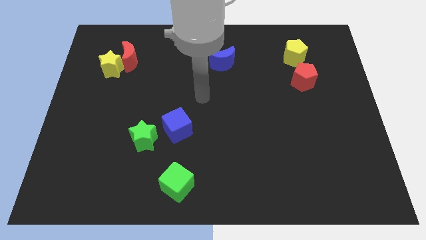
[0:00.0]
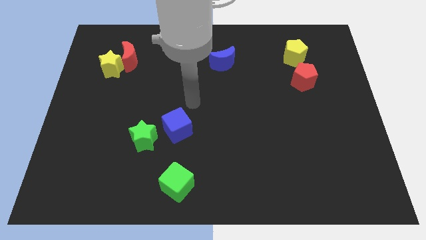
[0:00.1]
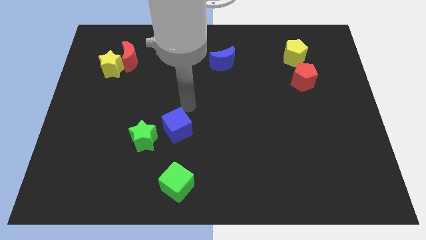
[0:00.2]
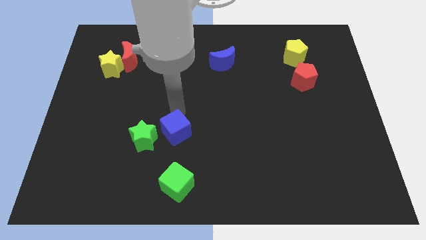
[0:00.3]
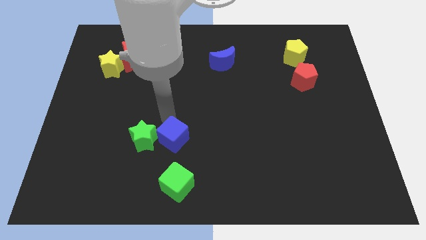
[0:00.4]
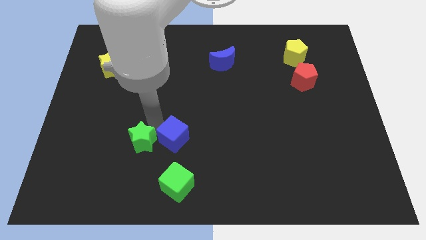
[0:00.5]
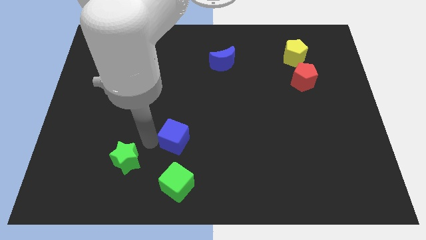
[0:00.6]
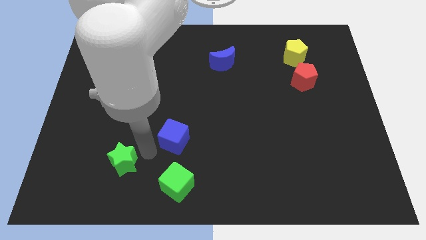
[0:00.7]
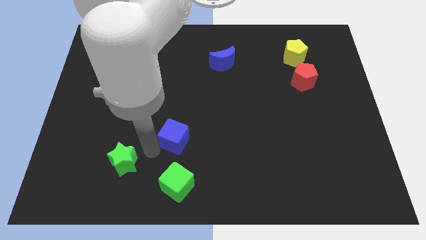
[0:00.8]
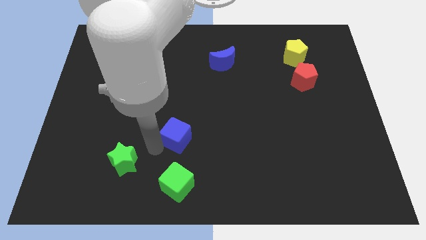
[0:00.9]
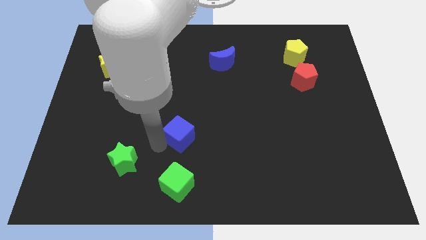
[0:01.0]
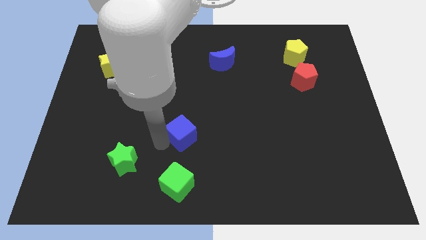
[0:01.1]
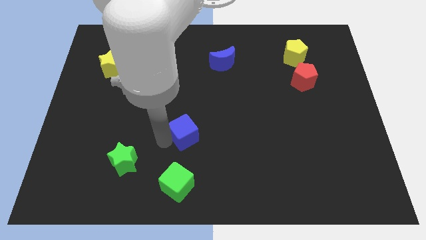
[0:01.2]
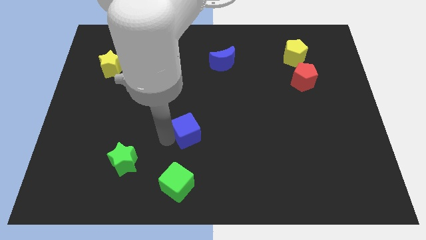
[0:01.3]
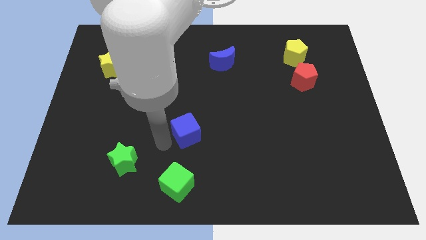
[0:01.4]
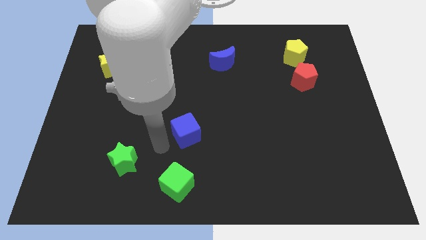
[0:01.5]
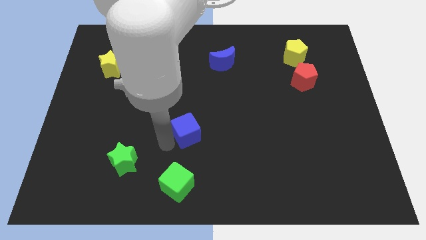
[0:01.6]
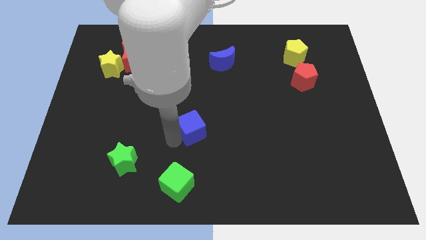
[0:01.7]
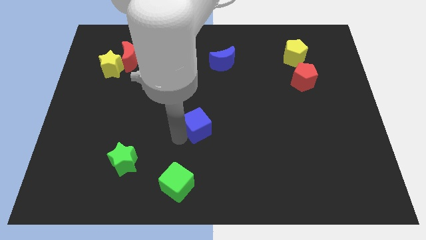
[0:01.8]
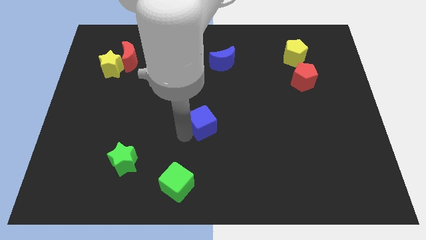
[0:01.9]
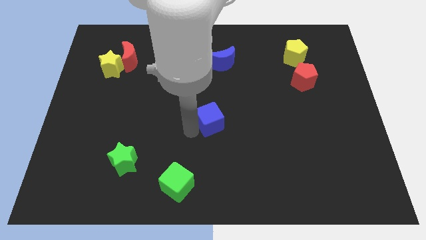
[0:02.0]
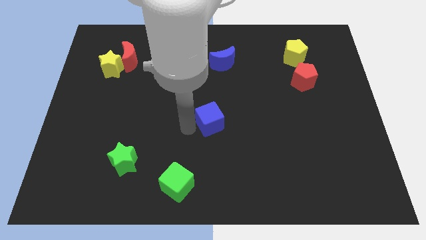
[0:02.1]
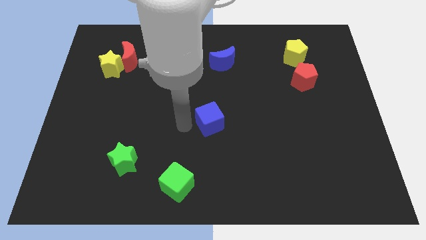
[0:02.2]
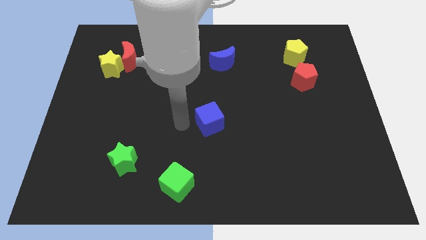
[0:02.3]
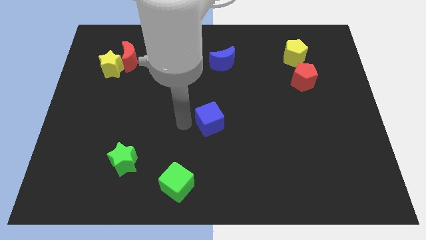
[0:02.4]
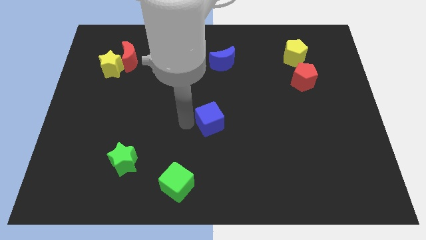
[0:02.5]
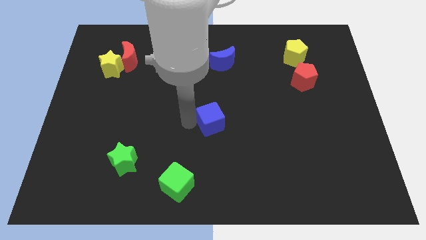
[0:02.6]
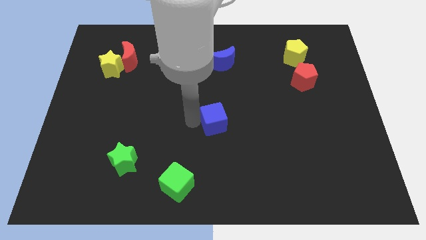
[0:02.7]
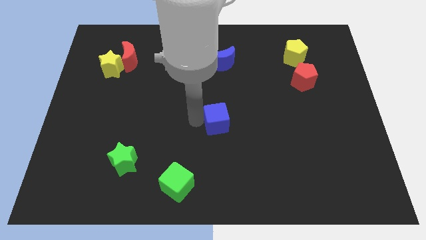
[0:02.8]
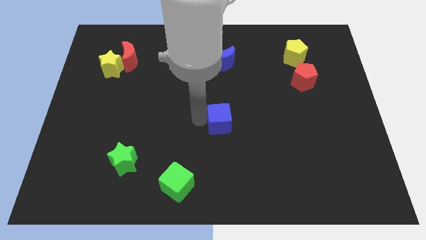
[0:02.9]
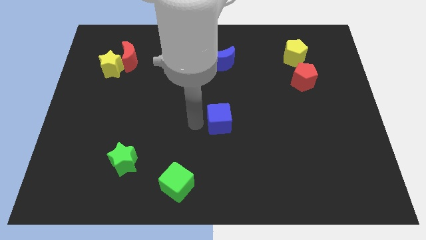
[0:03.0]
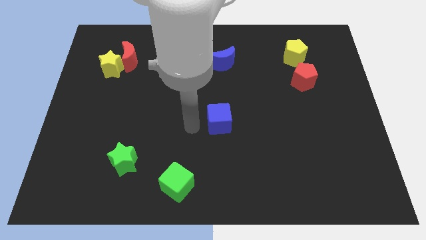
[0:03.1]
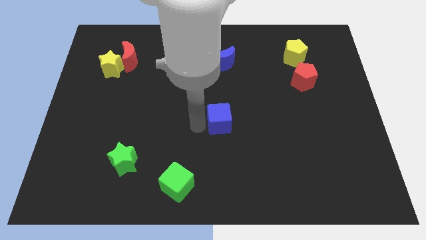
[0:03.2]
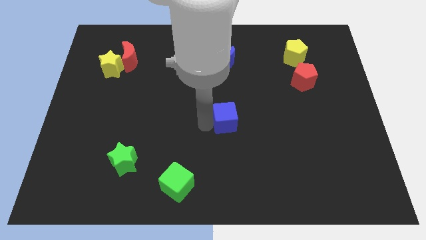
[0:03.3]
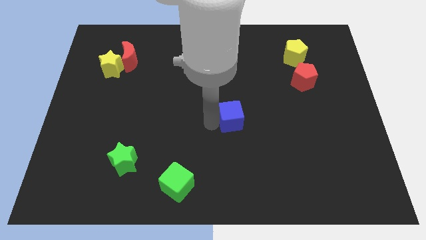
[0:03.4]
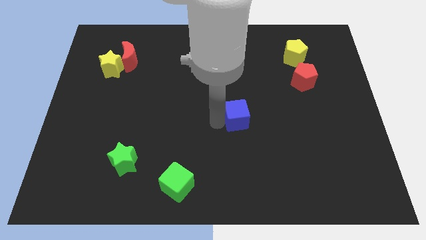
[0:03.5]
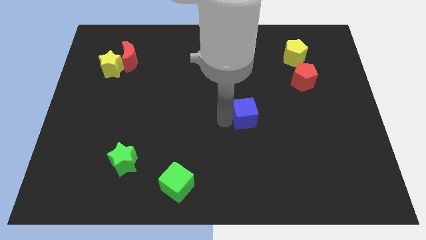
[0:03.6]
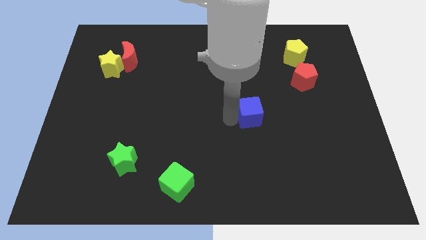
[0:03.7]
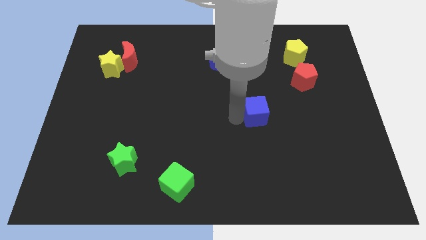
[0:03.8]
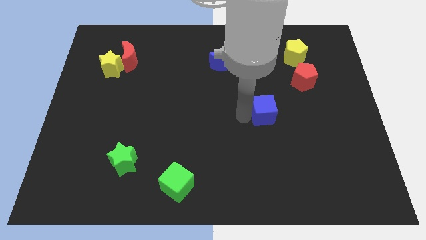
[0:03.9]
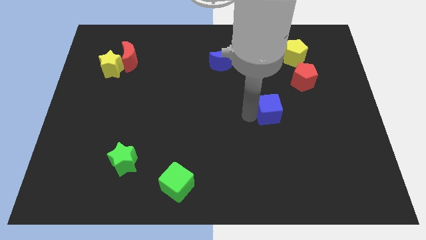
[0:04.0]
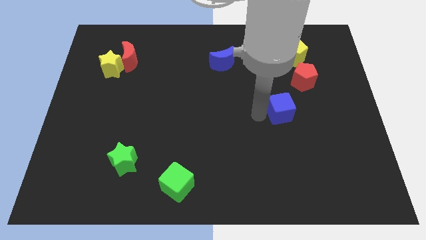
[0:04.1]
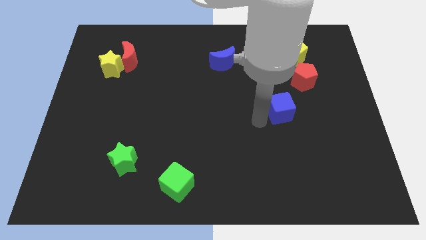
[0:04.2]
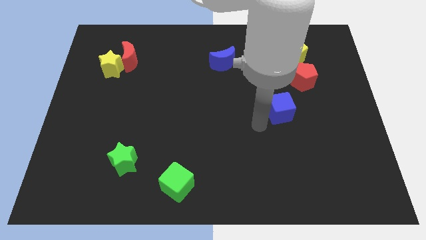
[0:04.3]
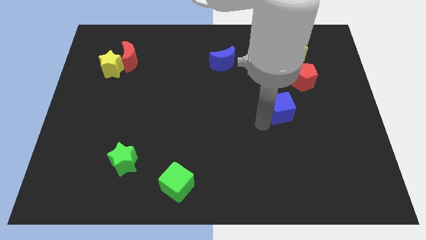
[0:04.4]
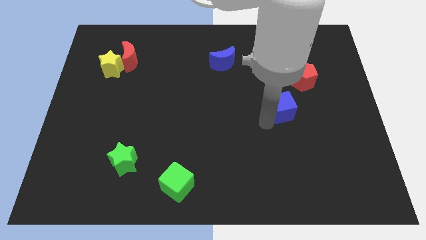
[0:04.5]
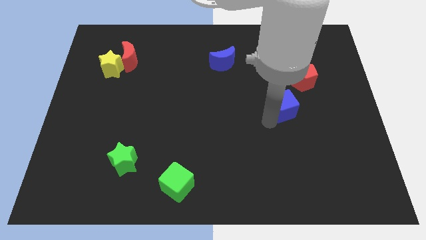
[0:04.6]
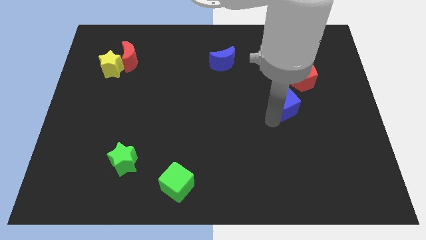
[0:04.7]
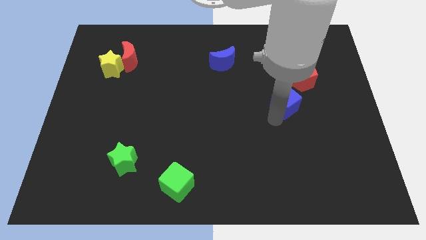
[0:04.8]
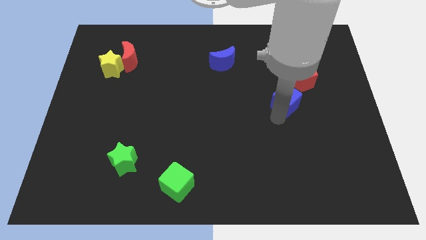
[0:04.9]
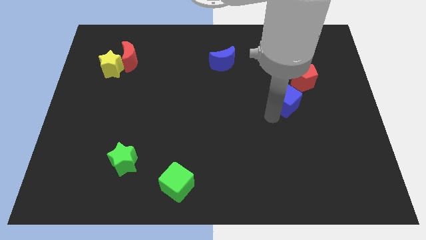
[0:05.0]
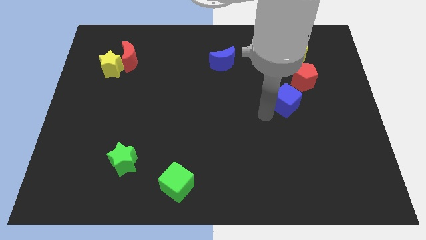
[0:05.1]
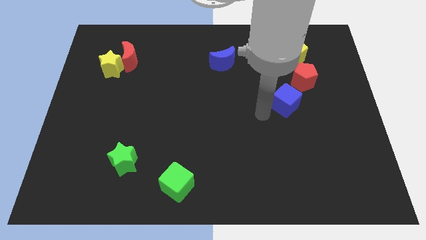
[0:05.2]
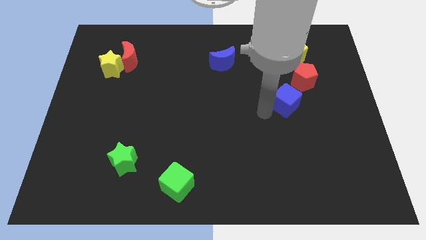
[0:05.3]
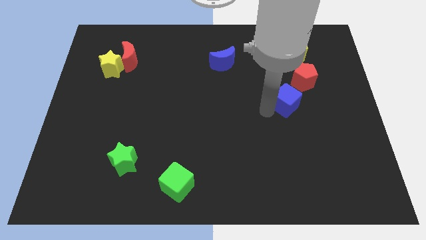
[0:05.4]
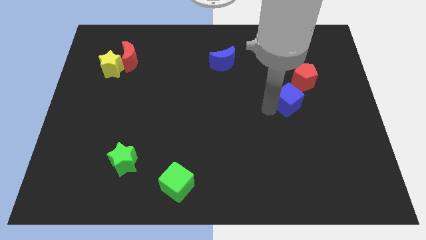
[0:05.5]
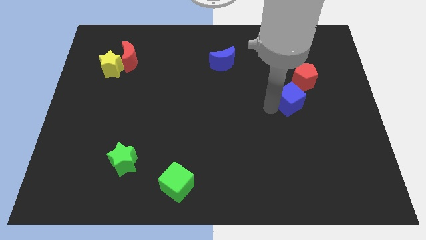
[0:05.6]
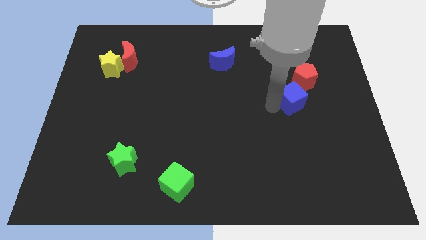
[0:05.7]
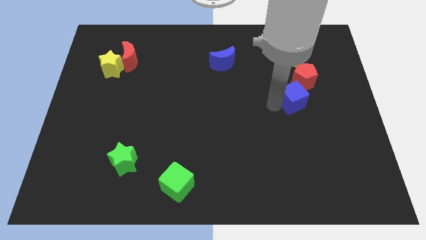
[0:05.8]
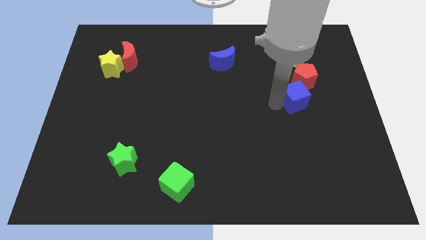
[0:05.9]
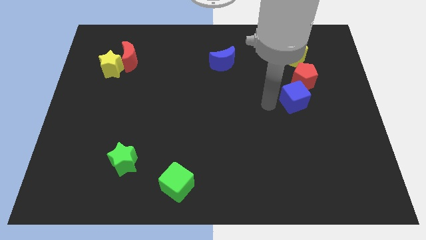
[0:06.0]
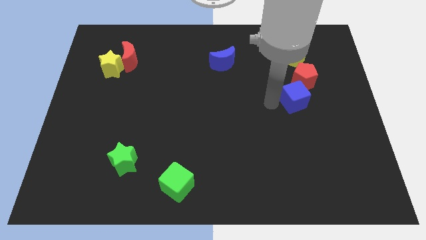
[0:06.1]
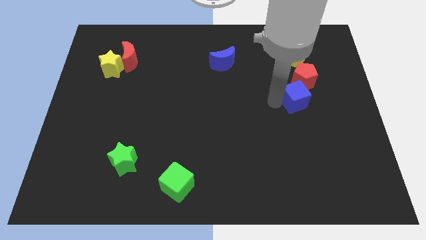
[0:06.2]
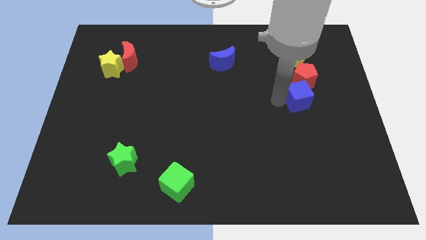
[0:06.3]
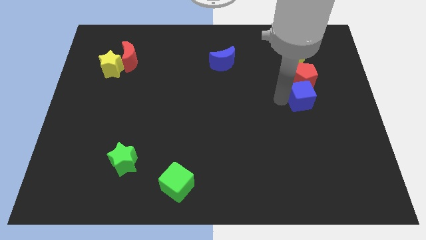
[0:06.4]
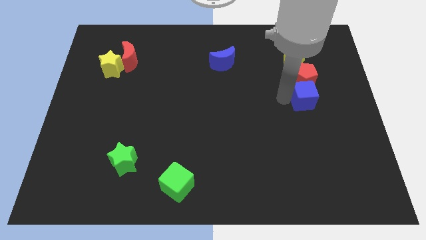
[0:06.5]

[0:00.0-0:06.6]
put the blue cube diagonally down and to the right of the red pentagon

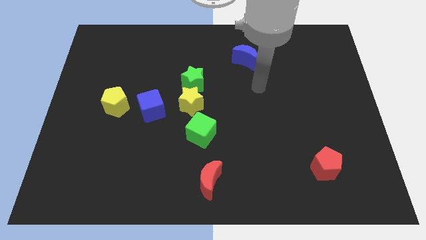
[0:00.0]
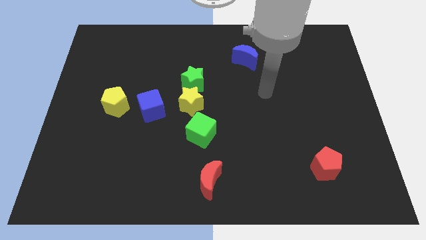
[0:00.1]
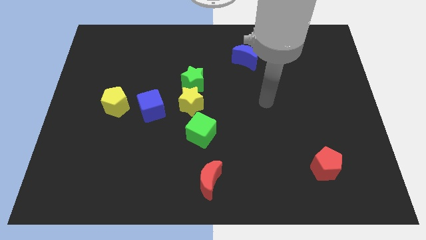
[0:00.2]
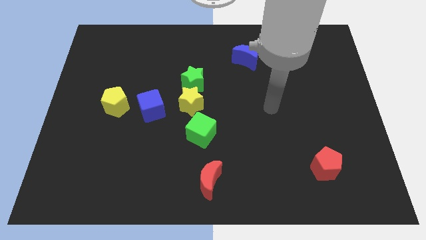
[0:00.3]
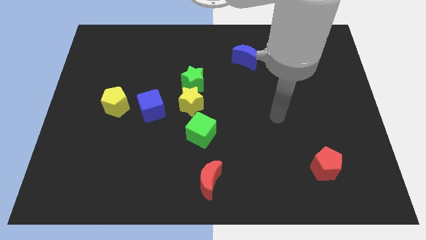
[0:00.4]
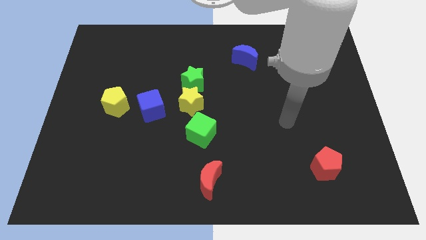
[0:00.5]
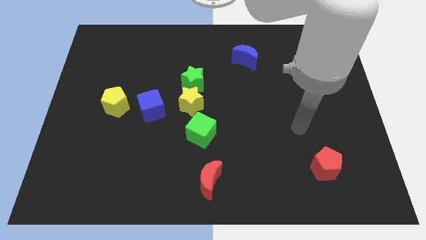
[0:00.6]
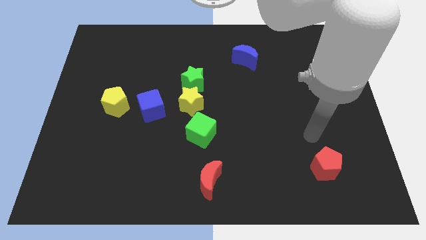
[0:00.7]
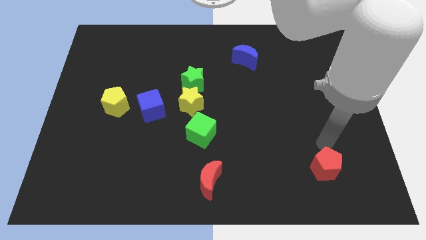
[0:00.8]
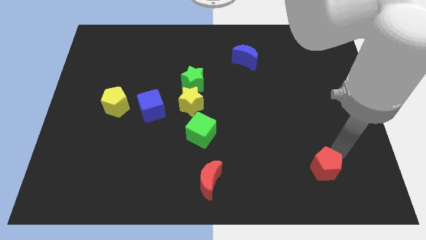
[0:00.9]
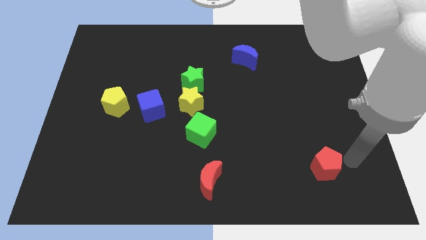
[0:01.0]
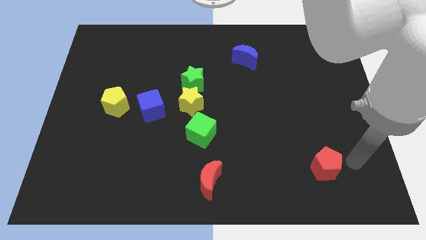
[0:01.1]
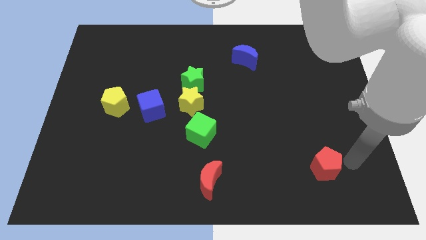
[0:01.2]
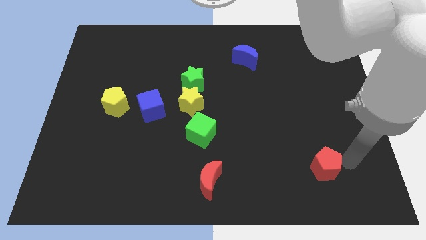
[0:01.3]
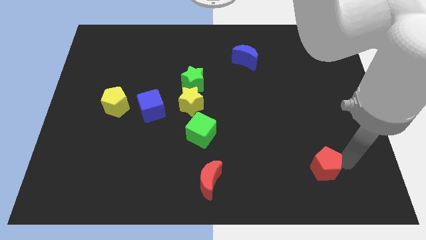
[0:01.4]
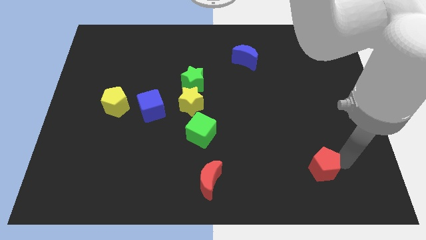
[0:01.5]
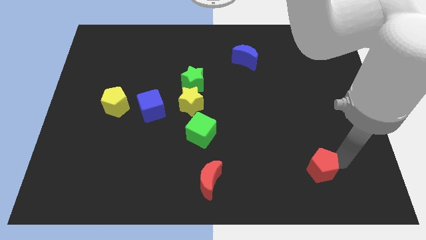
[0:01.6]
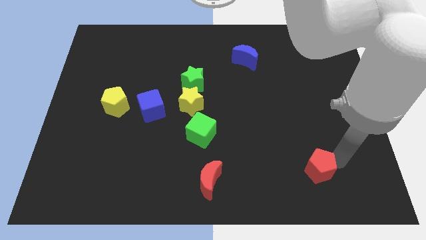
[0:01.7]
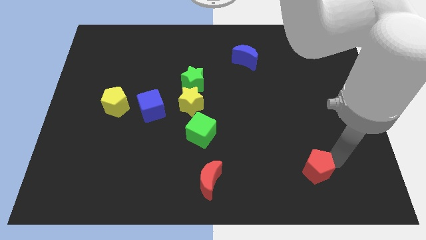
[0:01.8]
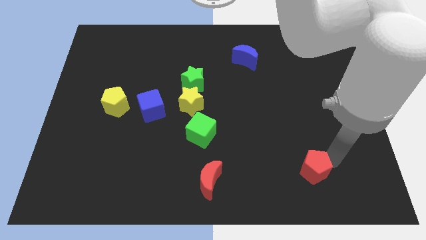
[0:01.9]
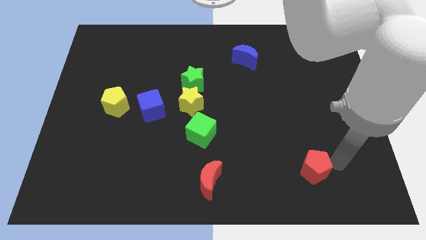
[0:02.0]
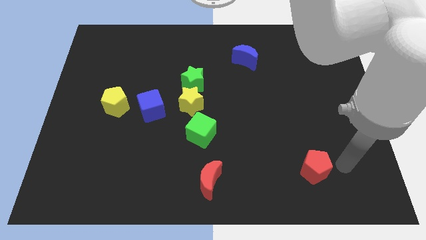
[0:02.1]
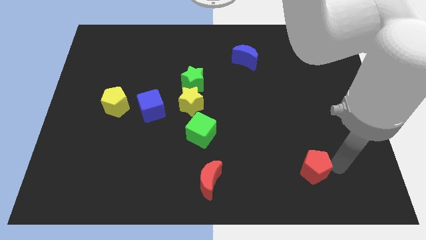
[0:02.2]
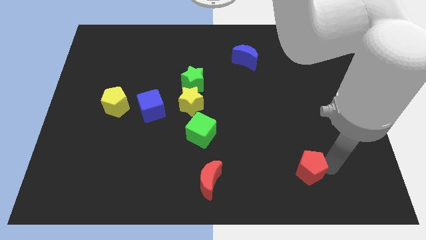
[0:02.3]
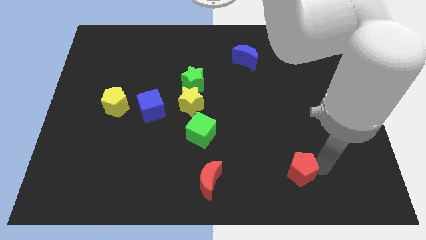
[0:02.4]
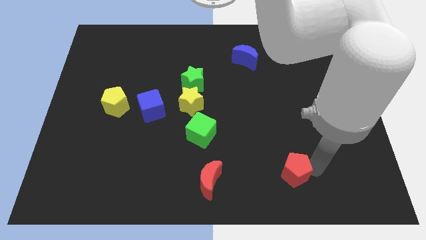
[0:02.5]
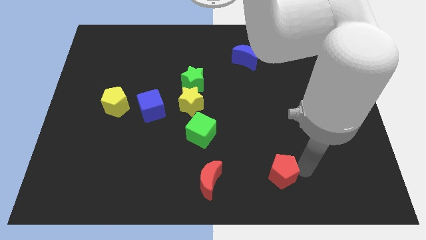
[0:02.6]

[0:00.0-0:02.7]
move the red pentagon just right of the red moon
